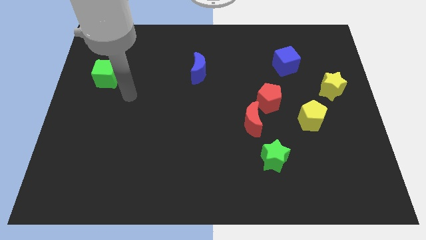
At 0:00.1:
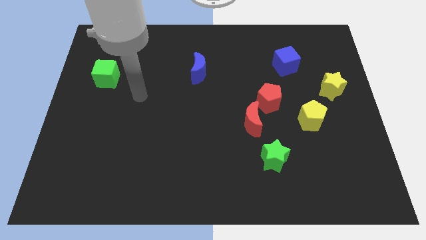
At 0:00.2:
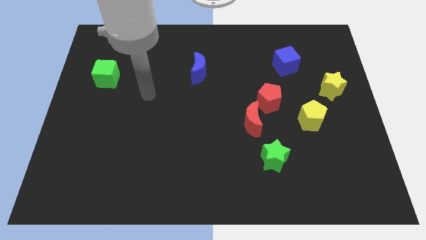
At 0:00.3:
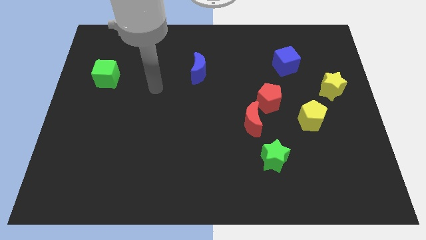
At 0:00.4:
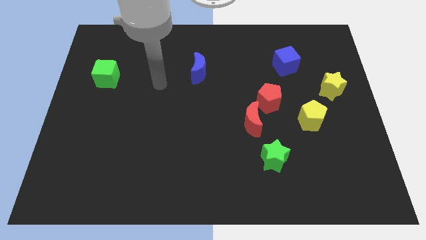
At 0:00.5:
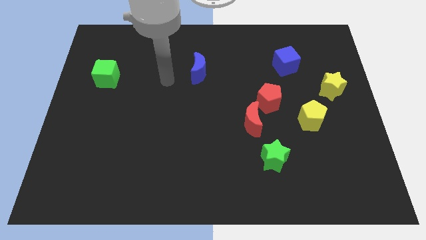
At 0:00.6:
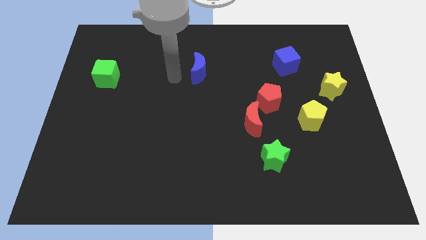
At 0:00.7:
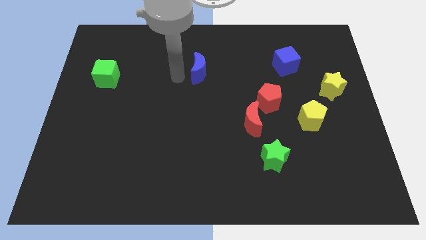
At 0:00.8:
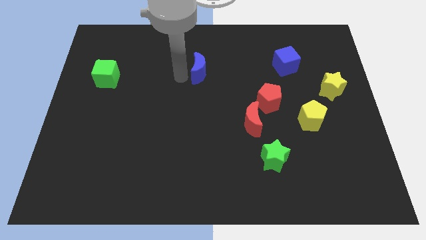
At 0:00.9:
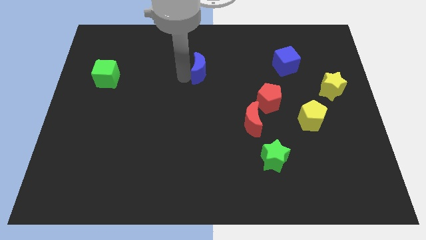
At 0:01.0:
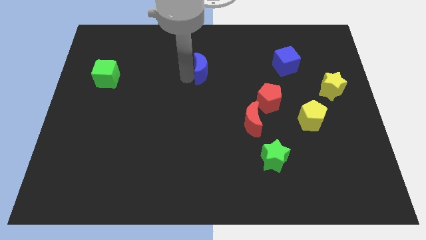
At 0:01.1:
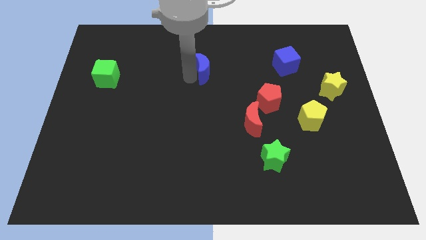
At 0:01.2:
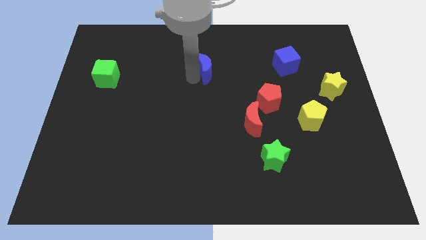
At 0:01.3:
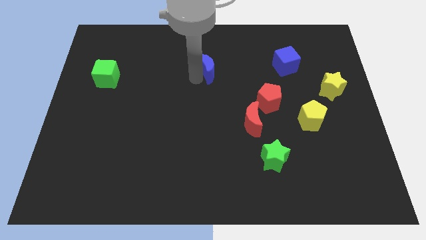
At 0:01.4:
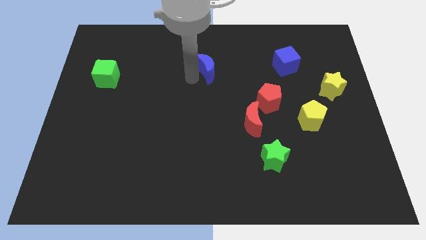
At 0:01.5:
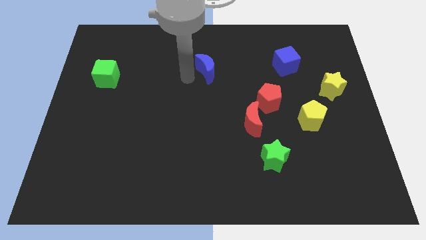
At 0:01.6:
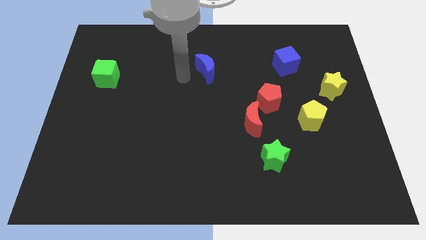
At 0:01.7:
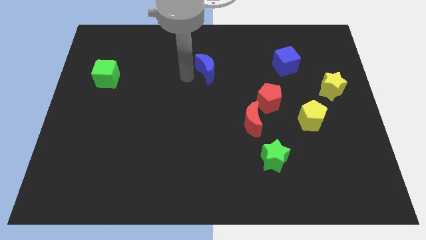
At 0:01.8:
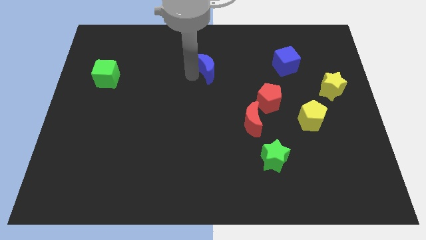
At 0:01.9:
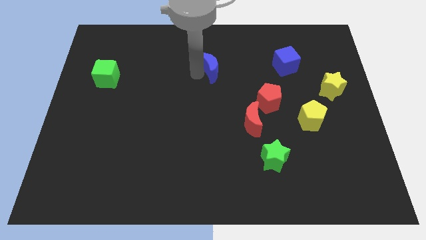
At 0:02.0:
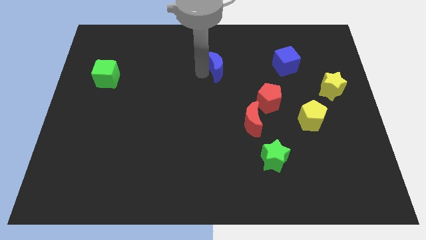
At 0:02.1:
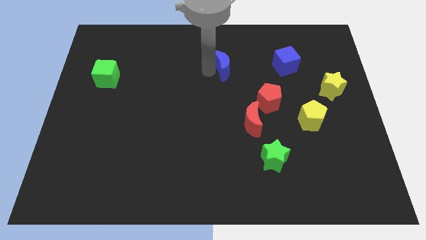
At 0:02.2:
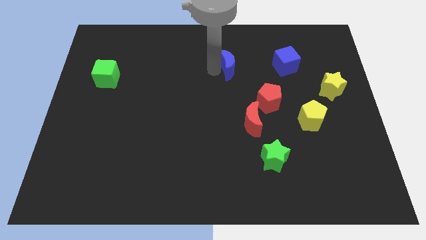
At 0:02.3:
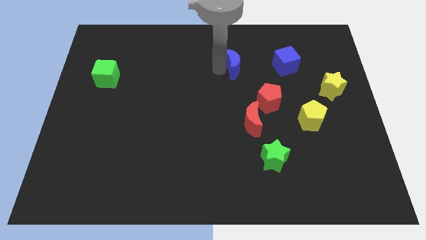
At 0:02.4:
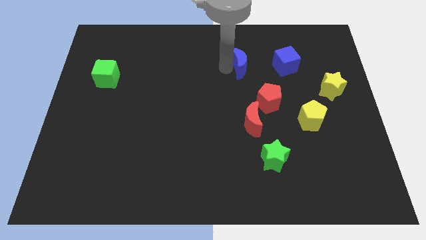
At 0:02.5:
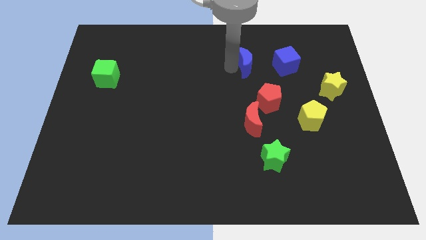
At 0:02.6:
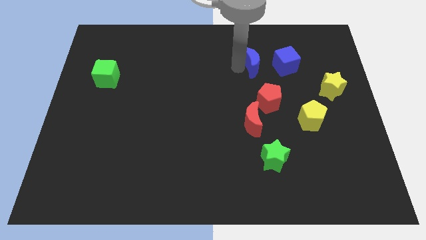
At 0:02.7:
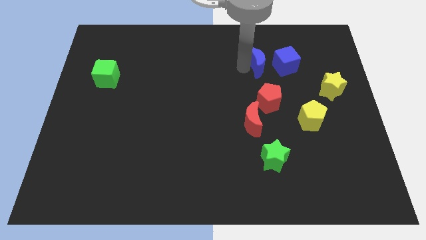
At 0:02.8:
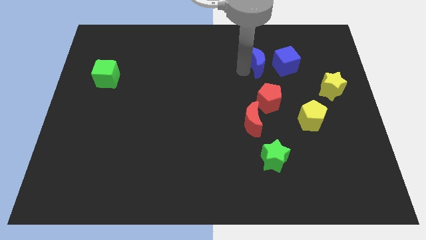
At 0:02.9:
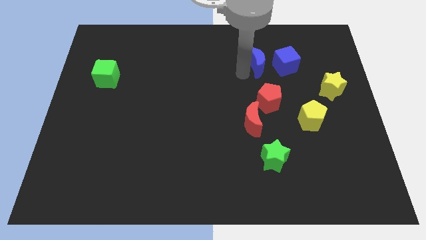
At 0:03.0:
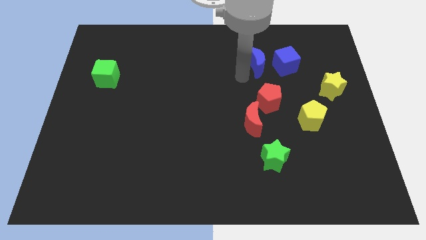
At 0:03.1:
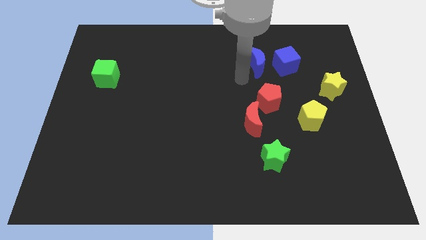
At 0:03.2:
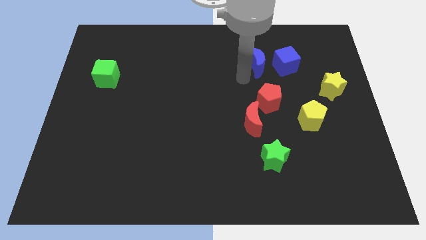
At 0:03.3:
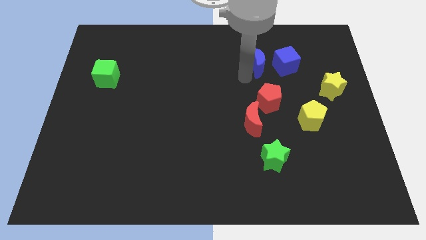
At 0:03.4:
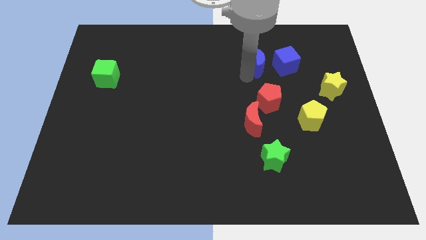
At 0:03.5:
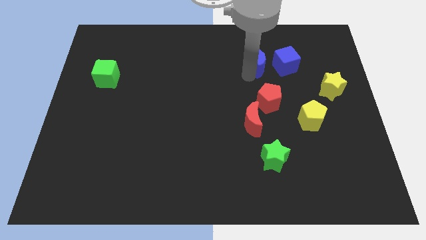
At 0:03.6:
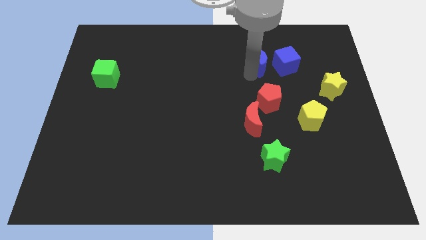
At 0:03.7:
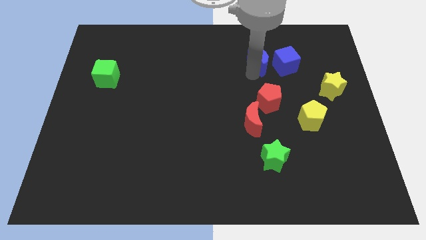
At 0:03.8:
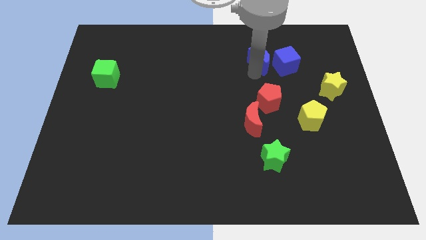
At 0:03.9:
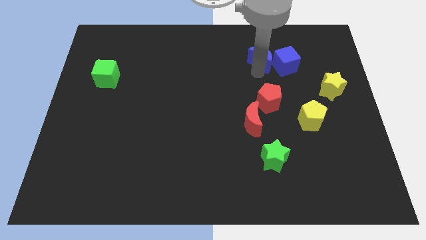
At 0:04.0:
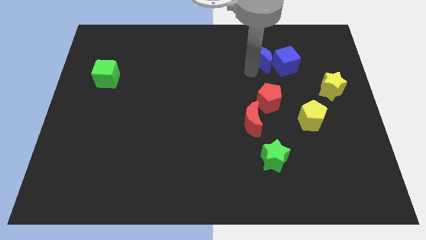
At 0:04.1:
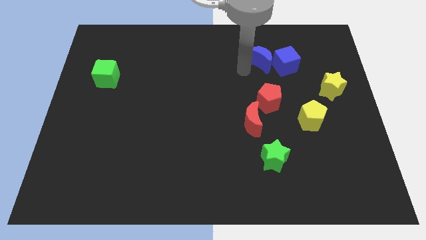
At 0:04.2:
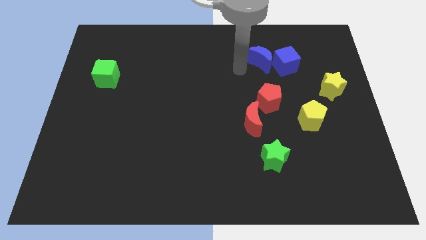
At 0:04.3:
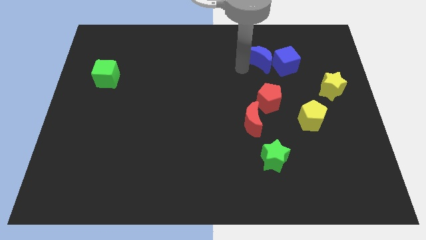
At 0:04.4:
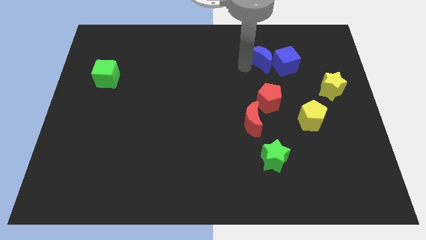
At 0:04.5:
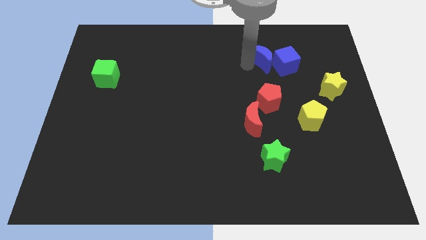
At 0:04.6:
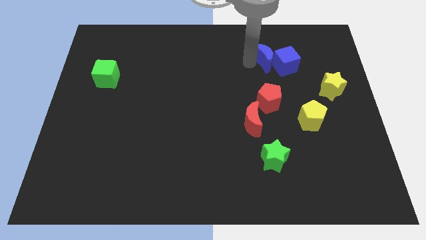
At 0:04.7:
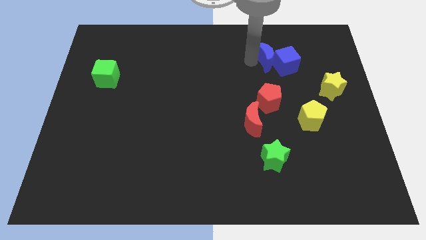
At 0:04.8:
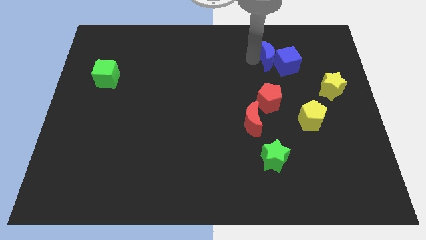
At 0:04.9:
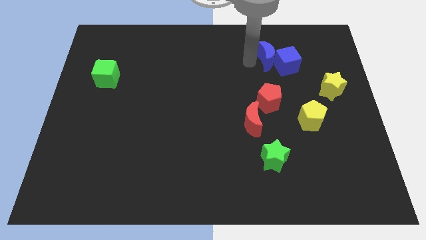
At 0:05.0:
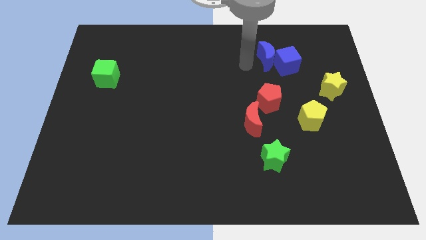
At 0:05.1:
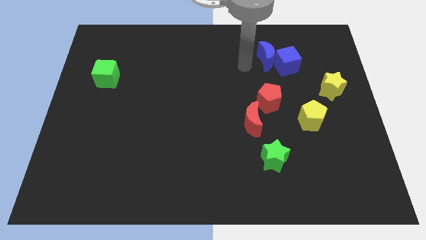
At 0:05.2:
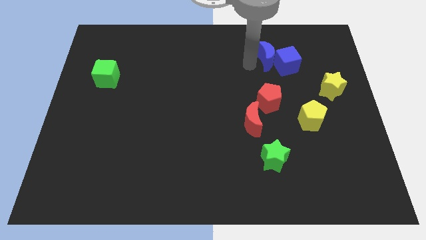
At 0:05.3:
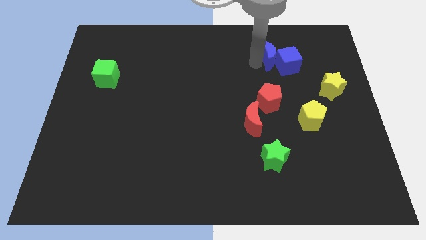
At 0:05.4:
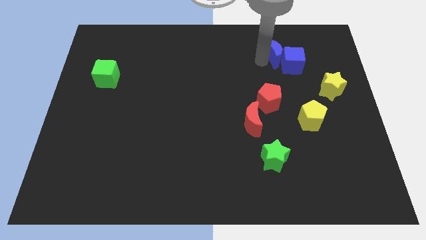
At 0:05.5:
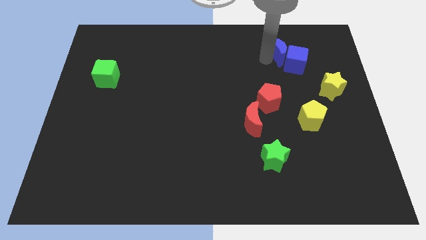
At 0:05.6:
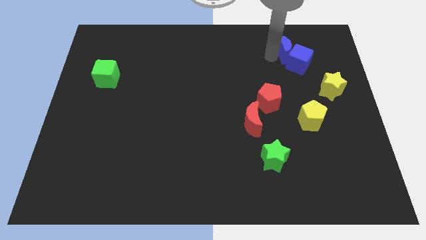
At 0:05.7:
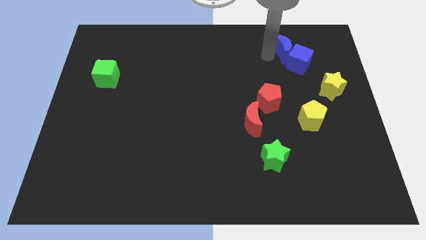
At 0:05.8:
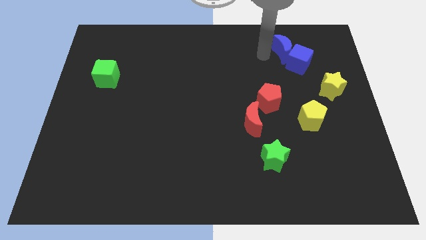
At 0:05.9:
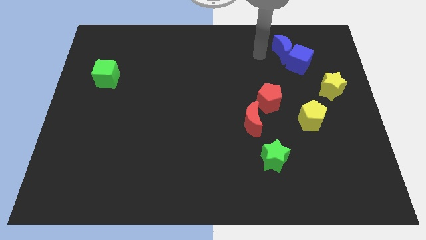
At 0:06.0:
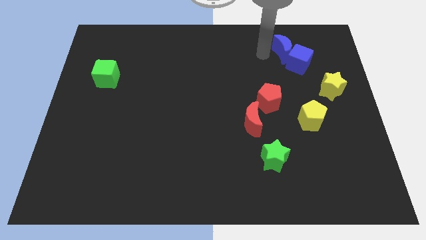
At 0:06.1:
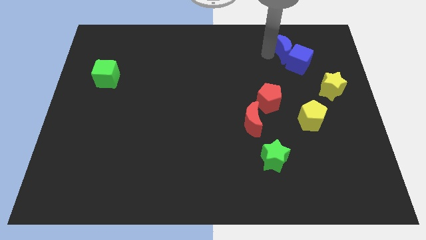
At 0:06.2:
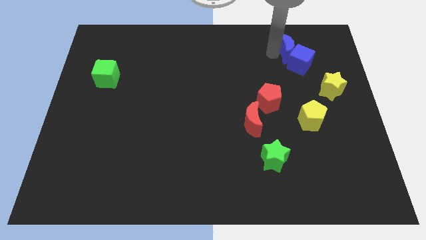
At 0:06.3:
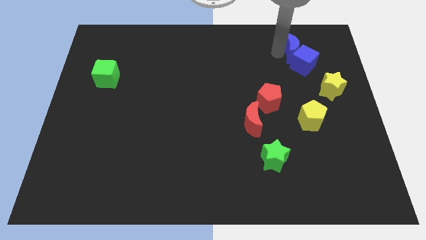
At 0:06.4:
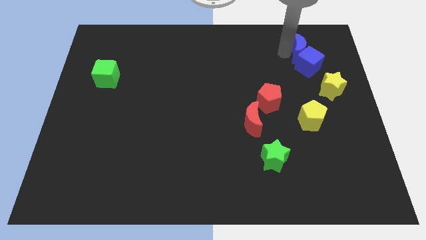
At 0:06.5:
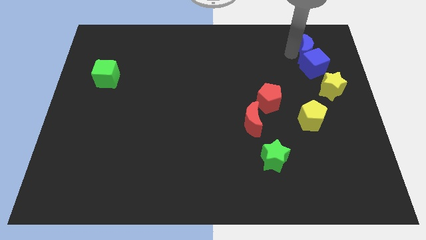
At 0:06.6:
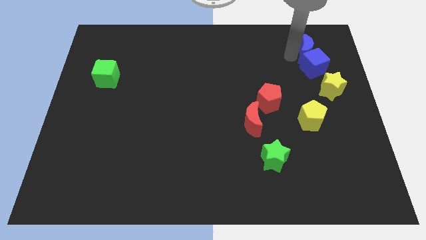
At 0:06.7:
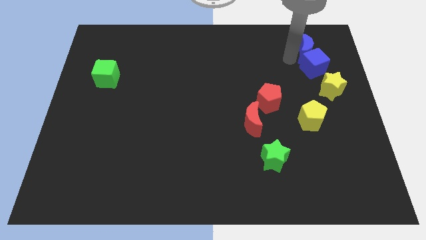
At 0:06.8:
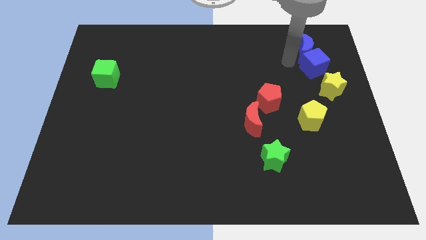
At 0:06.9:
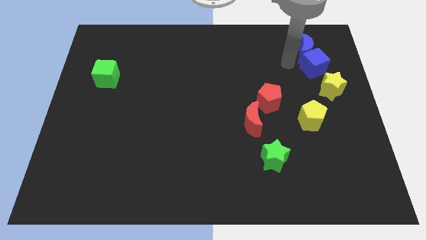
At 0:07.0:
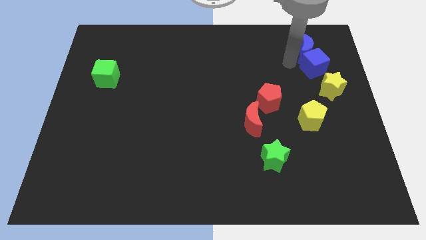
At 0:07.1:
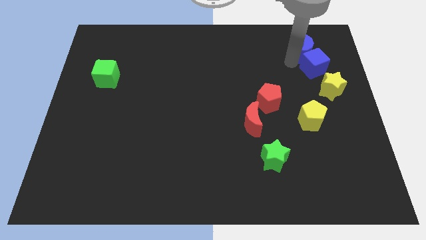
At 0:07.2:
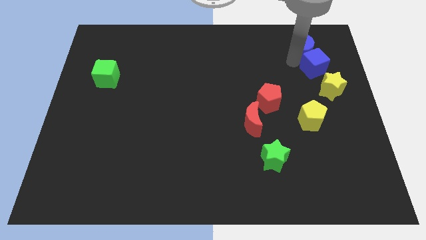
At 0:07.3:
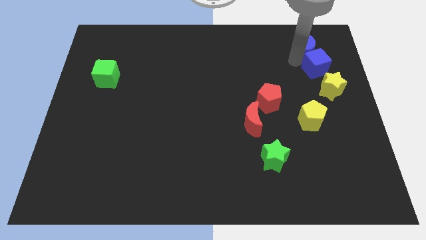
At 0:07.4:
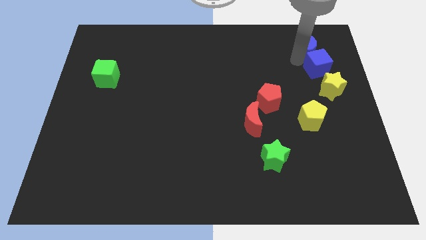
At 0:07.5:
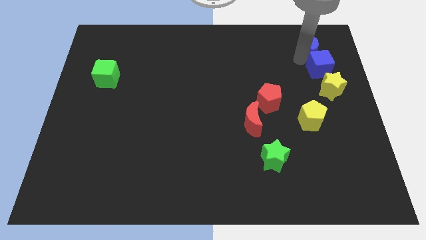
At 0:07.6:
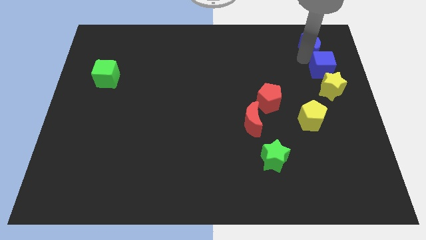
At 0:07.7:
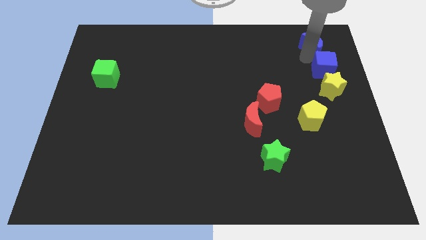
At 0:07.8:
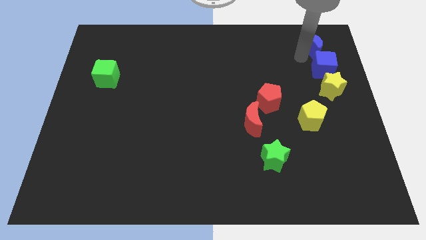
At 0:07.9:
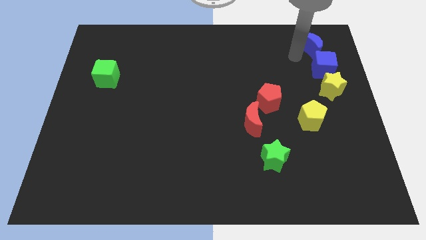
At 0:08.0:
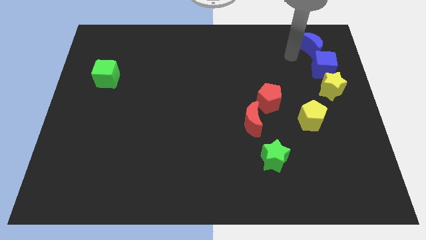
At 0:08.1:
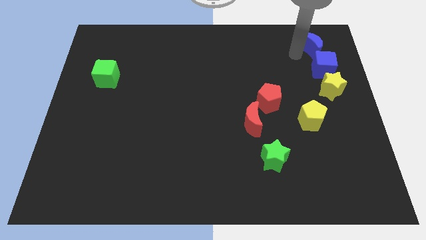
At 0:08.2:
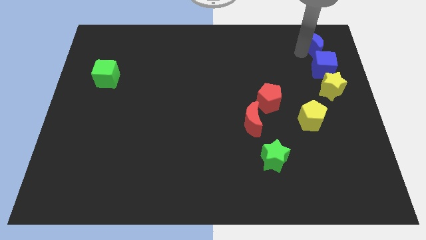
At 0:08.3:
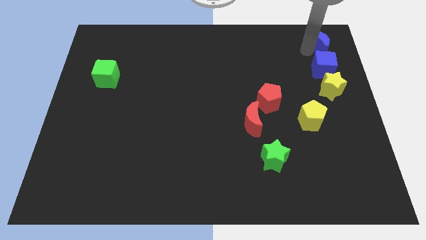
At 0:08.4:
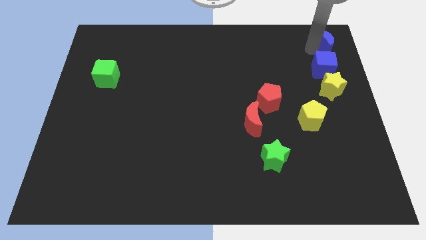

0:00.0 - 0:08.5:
move the blue moon to the top right corner
